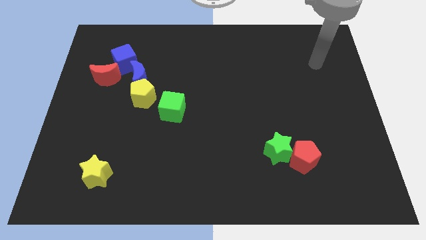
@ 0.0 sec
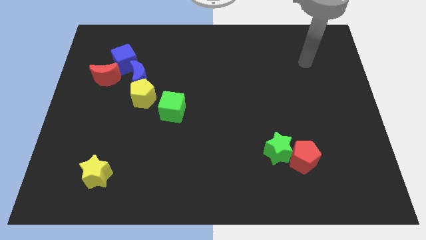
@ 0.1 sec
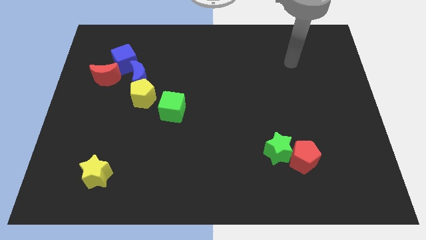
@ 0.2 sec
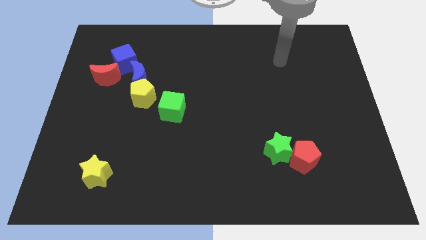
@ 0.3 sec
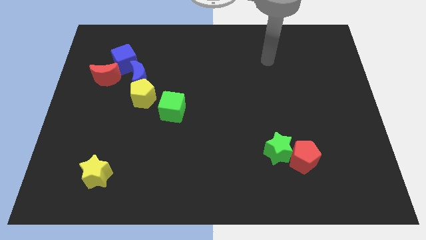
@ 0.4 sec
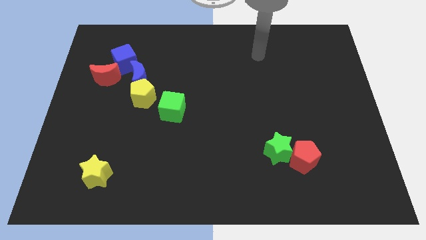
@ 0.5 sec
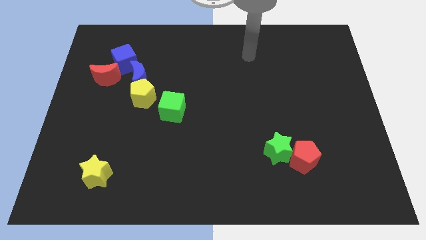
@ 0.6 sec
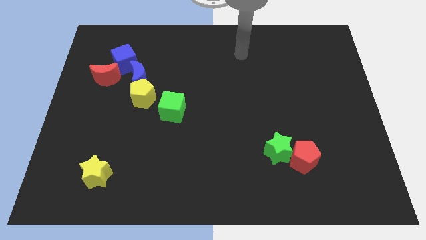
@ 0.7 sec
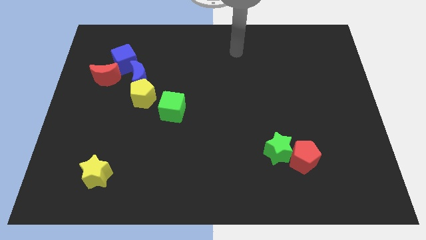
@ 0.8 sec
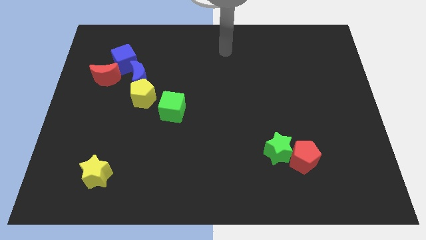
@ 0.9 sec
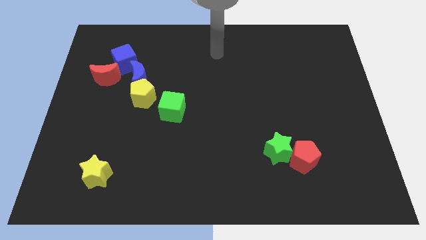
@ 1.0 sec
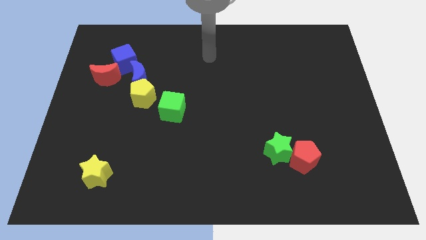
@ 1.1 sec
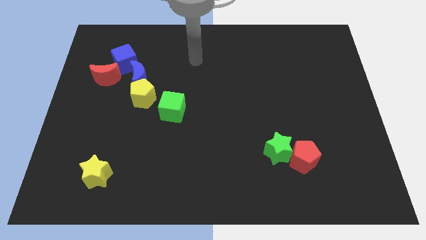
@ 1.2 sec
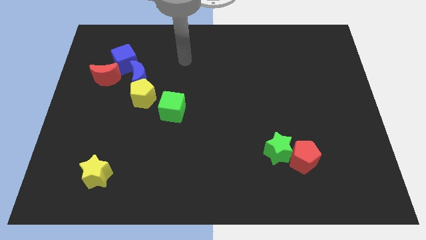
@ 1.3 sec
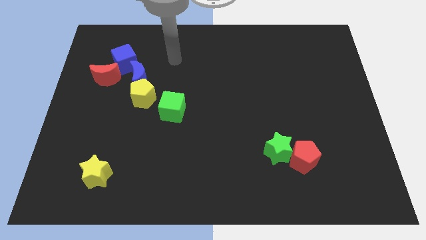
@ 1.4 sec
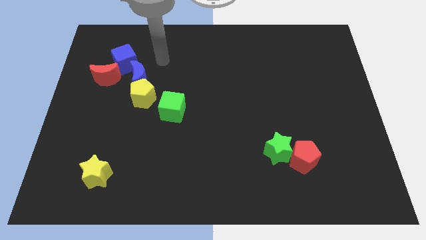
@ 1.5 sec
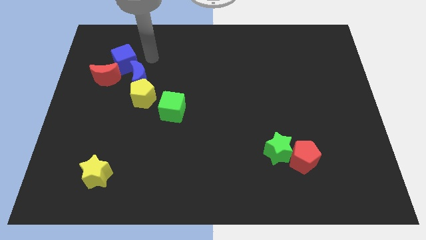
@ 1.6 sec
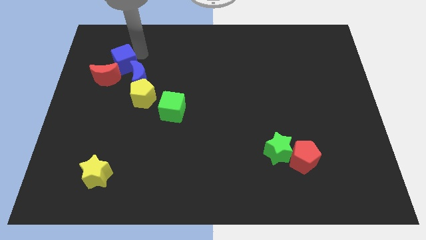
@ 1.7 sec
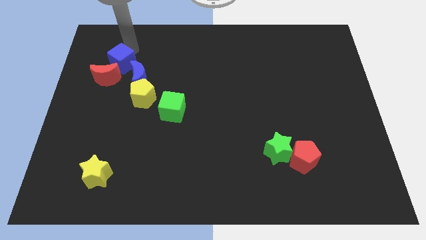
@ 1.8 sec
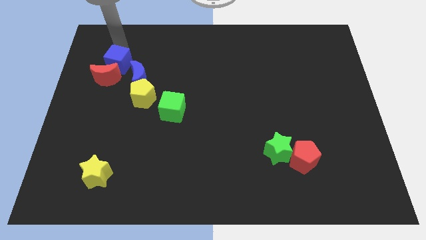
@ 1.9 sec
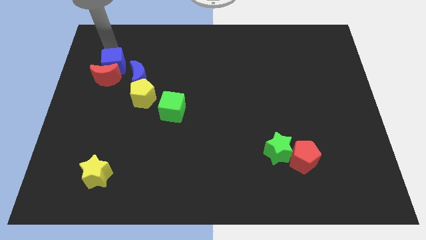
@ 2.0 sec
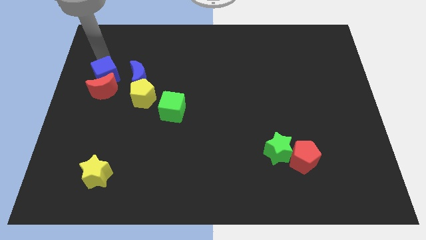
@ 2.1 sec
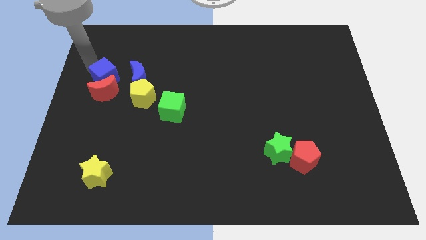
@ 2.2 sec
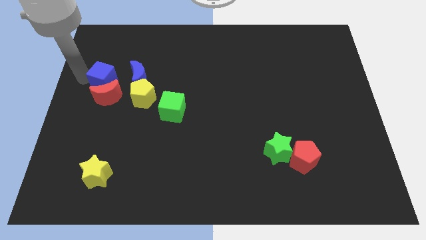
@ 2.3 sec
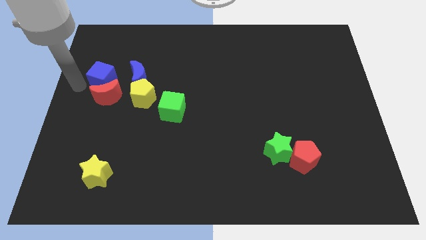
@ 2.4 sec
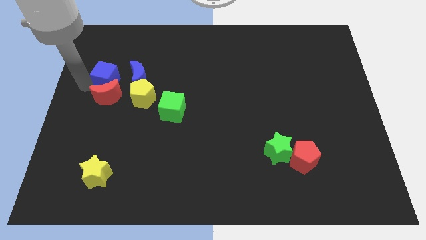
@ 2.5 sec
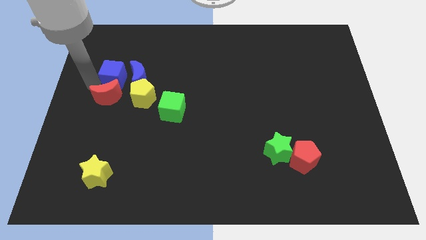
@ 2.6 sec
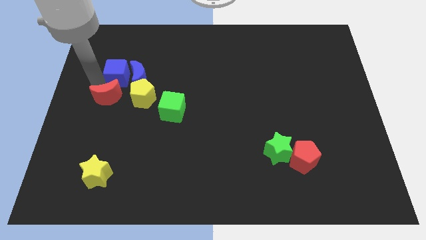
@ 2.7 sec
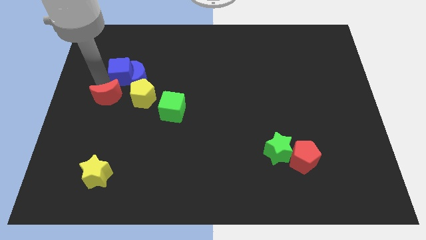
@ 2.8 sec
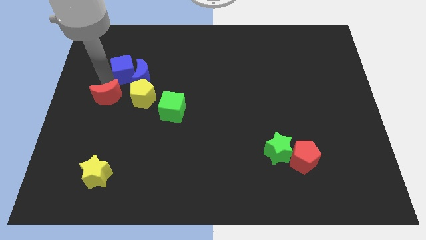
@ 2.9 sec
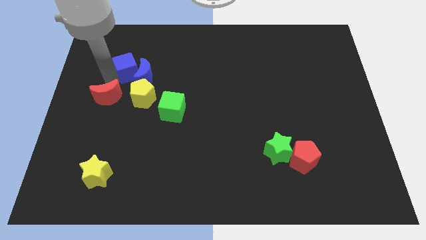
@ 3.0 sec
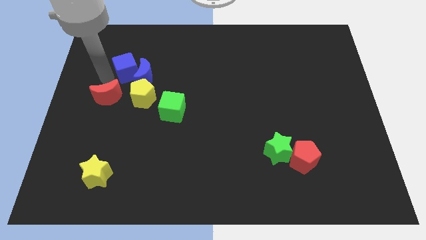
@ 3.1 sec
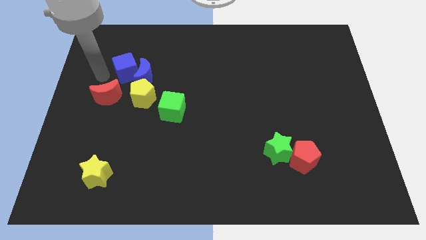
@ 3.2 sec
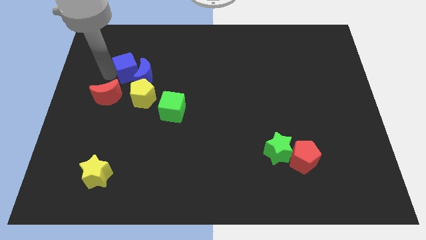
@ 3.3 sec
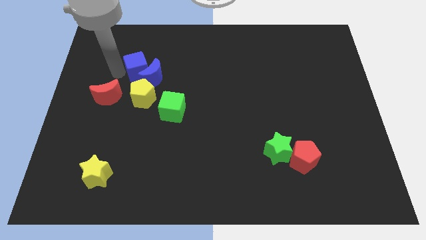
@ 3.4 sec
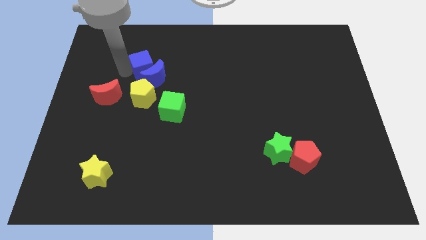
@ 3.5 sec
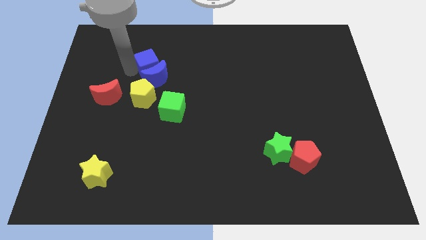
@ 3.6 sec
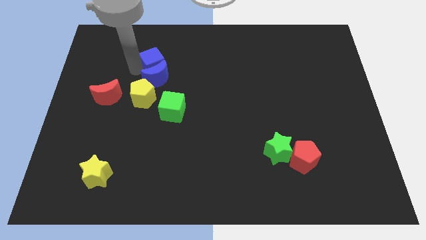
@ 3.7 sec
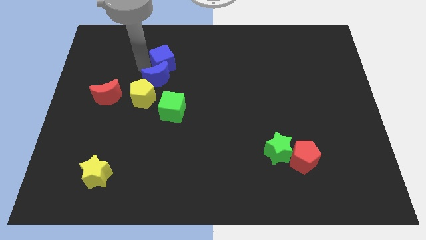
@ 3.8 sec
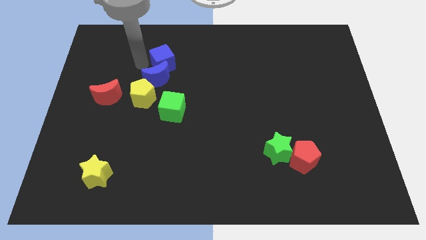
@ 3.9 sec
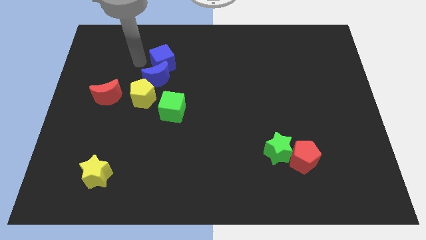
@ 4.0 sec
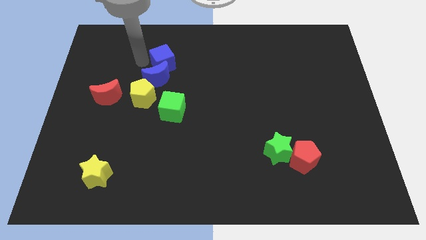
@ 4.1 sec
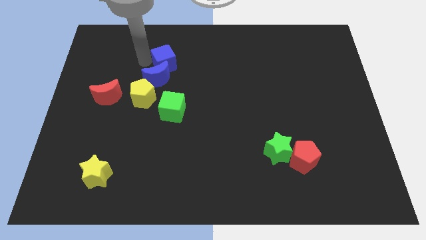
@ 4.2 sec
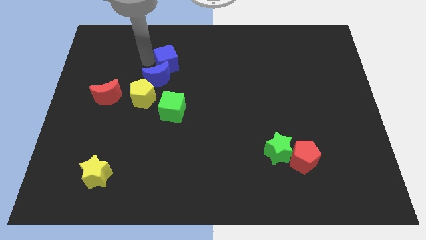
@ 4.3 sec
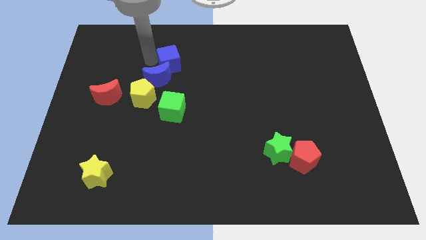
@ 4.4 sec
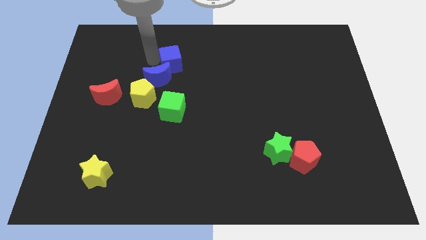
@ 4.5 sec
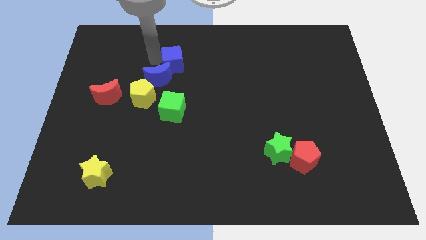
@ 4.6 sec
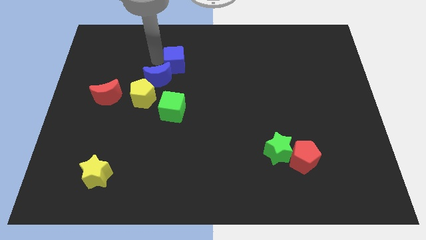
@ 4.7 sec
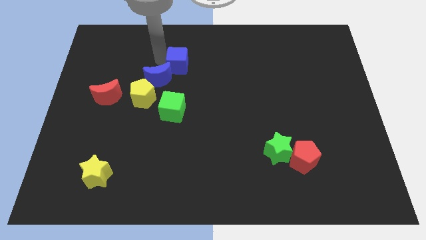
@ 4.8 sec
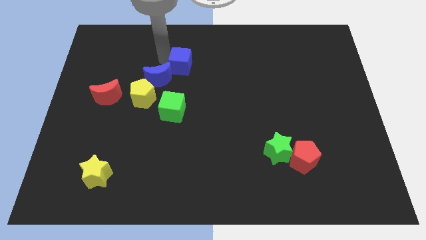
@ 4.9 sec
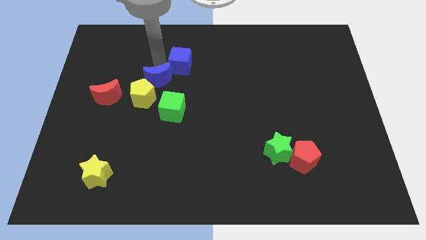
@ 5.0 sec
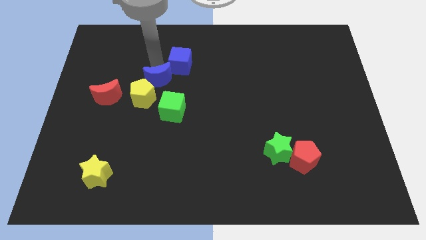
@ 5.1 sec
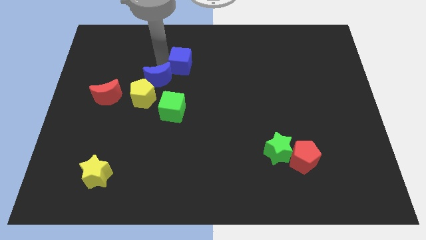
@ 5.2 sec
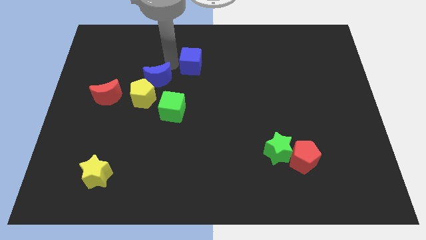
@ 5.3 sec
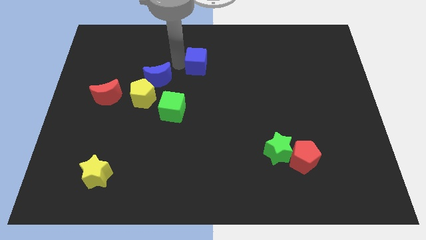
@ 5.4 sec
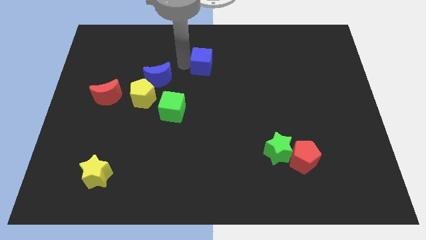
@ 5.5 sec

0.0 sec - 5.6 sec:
move the blue cube right

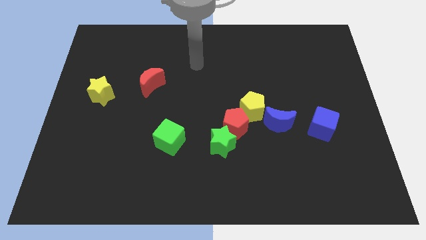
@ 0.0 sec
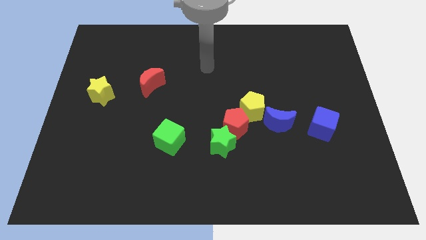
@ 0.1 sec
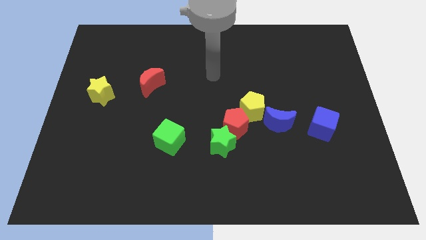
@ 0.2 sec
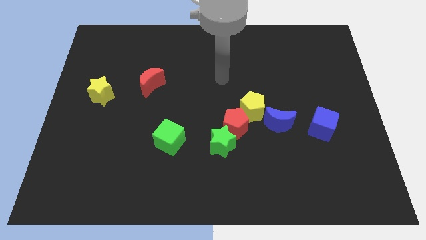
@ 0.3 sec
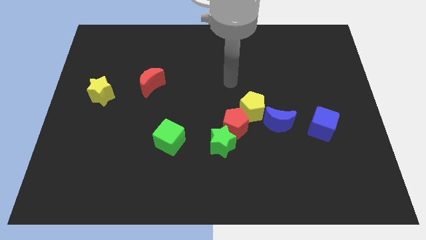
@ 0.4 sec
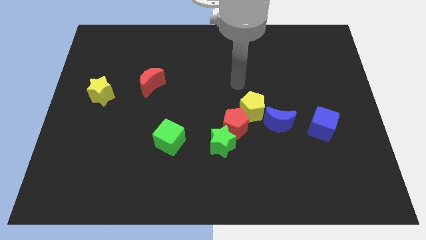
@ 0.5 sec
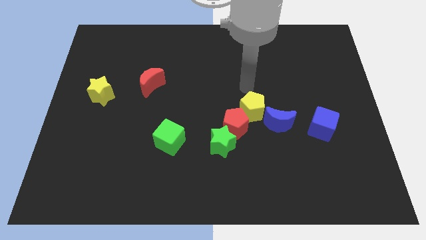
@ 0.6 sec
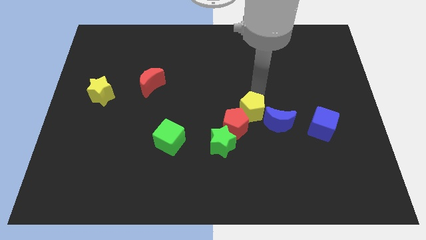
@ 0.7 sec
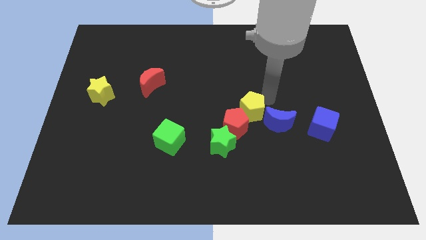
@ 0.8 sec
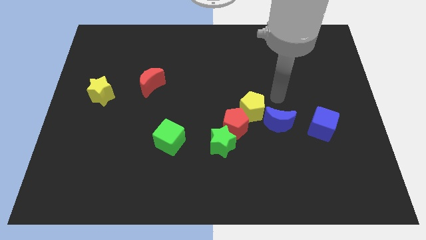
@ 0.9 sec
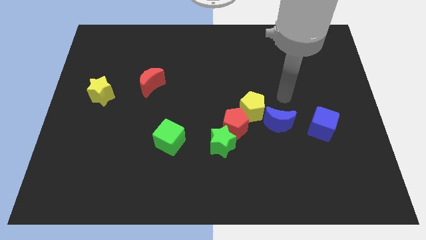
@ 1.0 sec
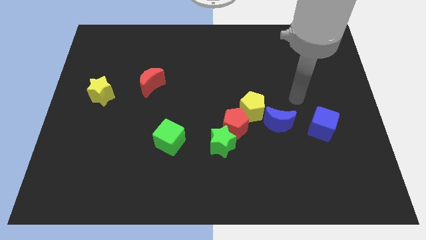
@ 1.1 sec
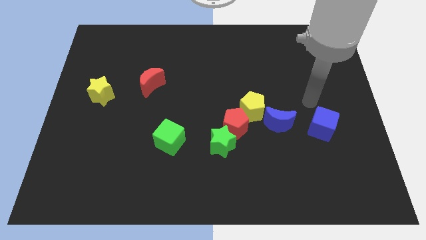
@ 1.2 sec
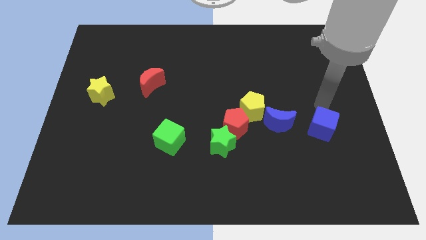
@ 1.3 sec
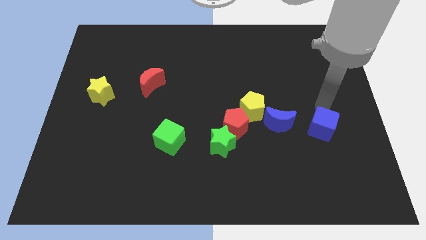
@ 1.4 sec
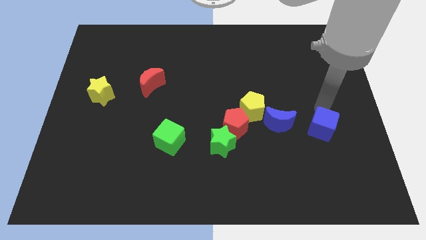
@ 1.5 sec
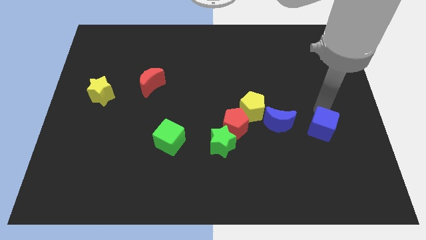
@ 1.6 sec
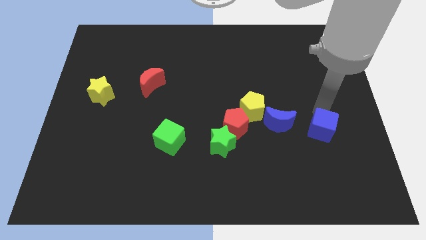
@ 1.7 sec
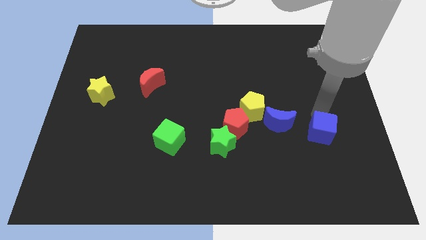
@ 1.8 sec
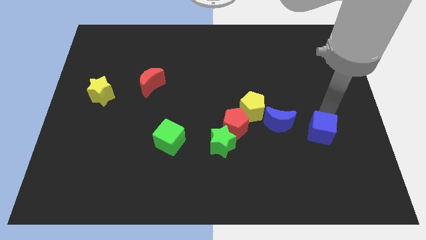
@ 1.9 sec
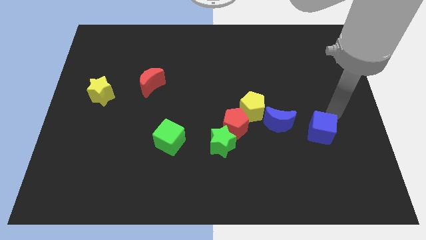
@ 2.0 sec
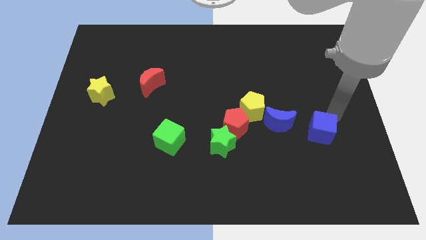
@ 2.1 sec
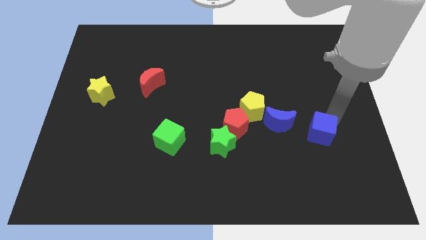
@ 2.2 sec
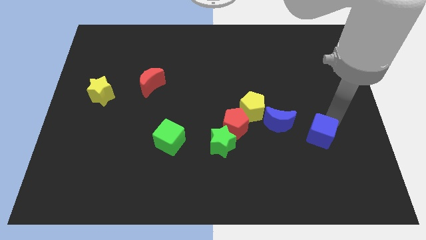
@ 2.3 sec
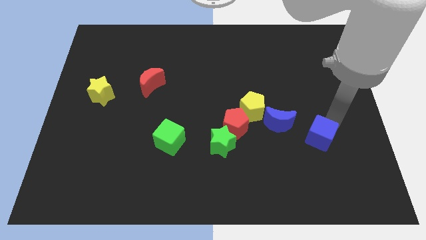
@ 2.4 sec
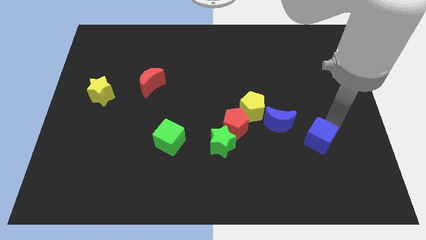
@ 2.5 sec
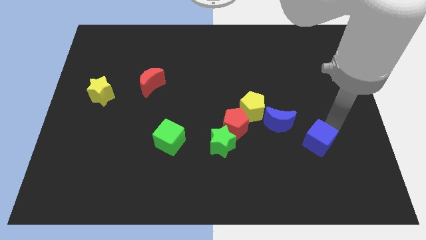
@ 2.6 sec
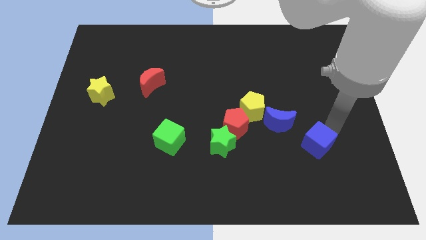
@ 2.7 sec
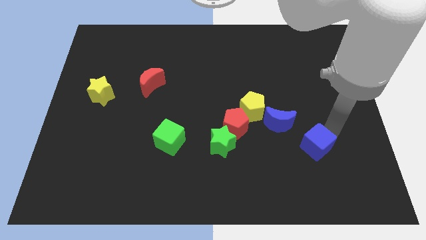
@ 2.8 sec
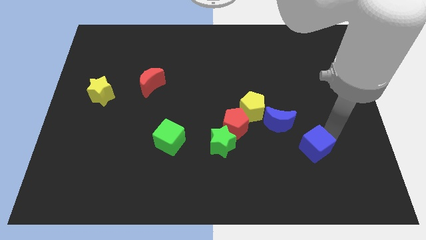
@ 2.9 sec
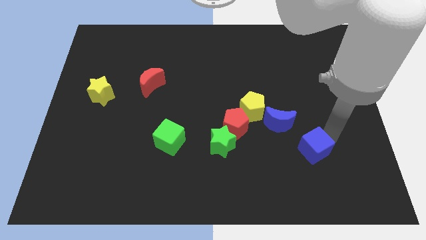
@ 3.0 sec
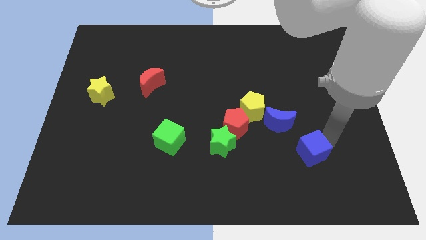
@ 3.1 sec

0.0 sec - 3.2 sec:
move the blue cube downwards and to the left somewhat
